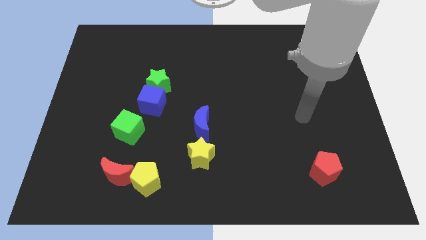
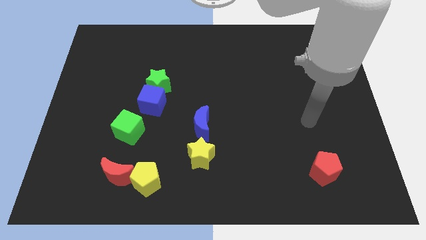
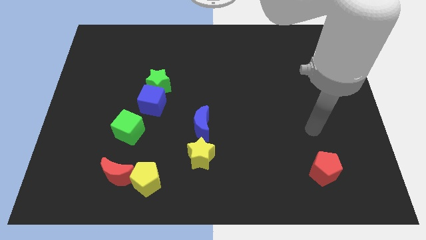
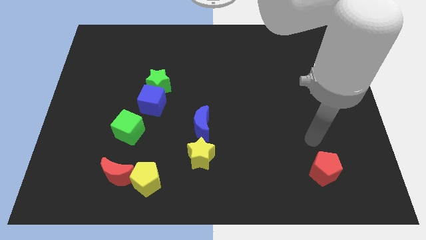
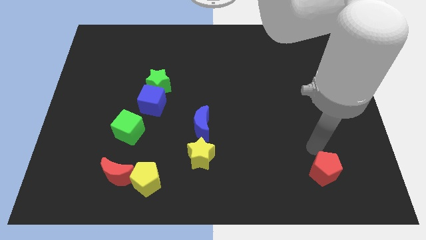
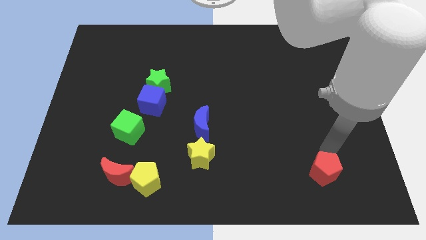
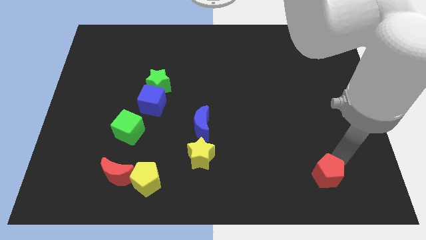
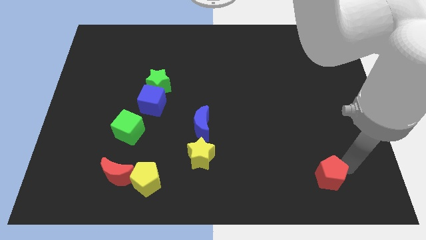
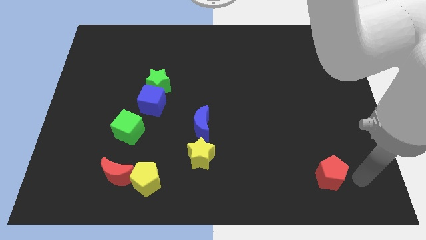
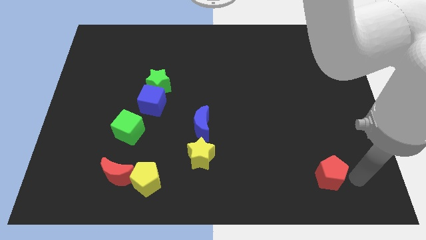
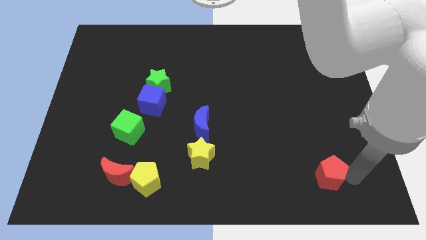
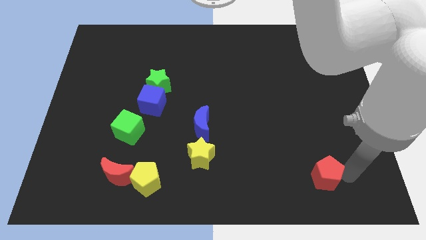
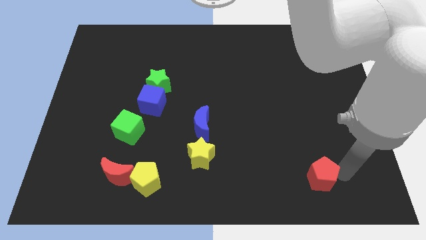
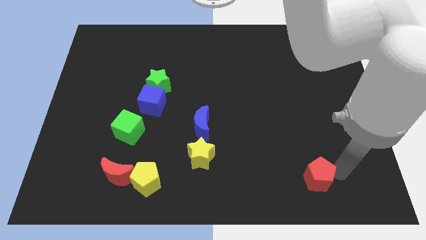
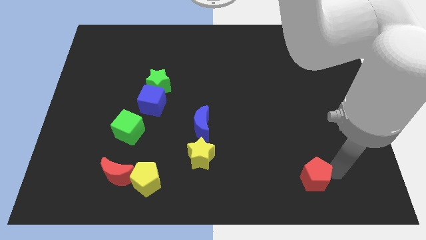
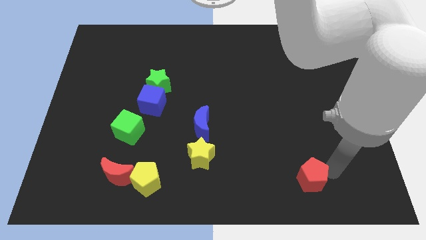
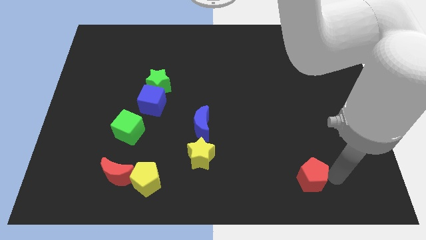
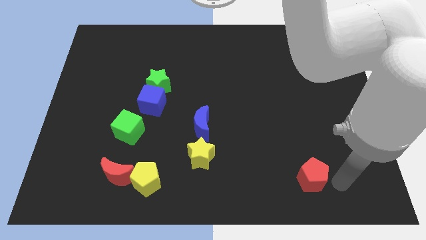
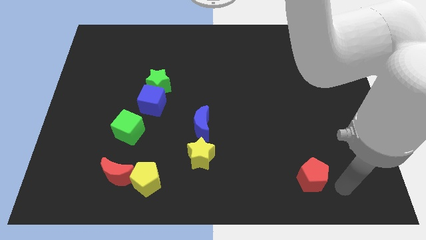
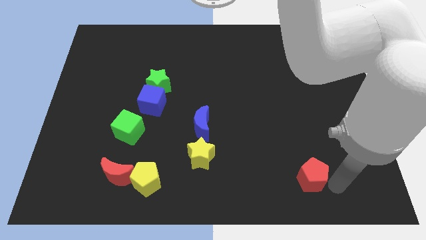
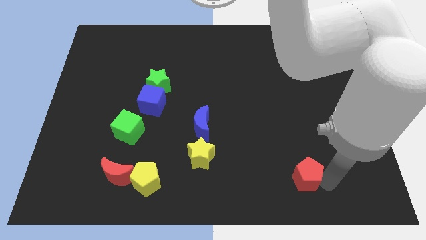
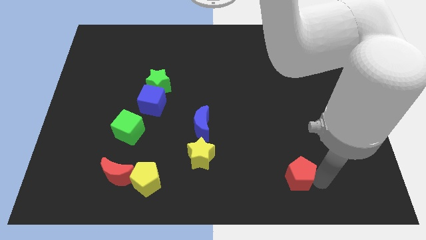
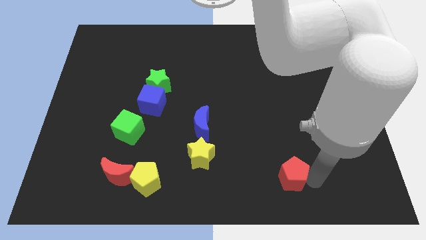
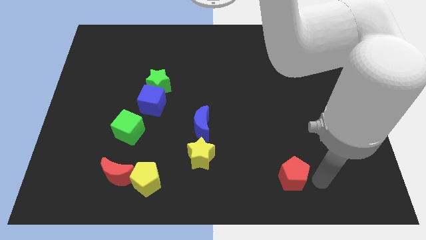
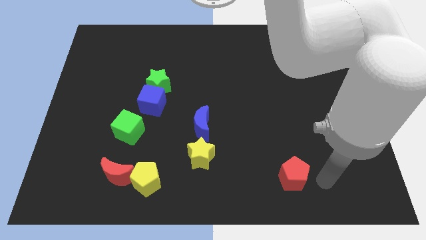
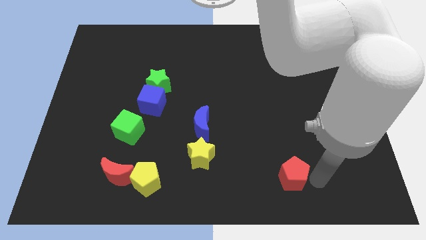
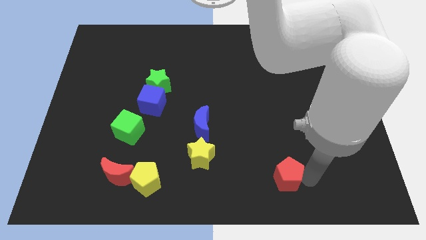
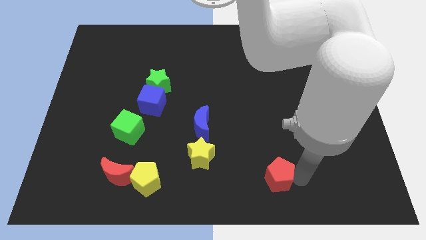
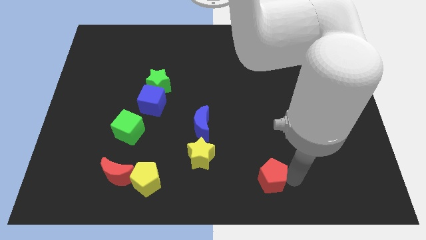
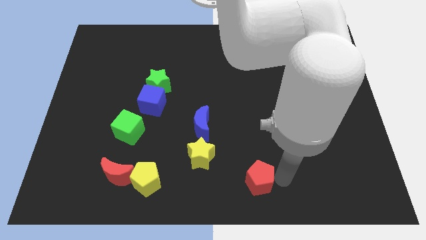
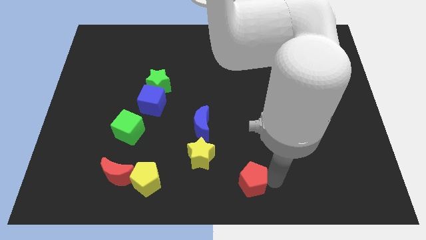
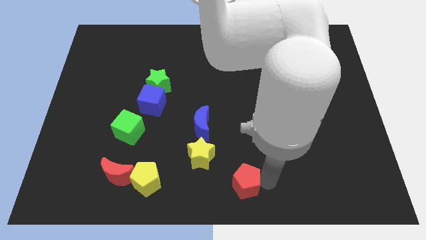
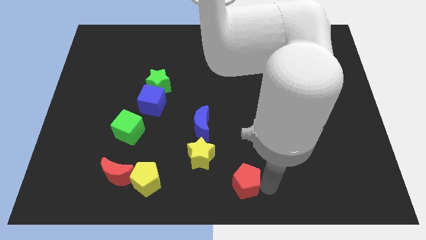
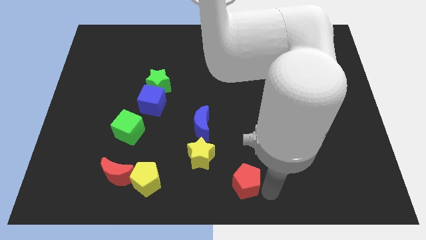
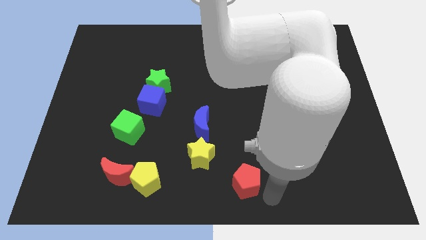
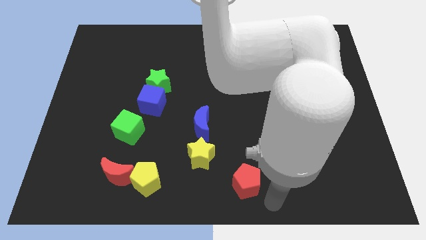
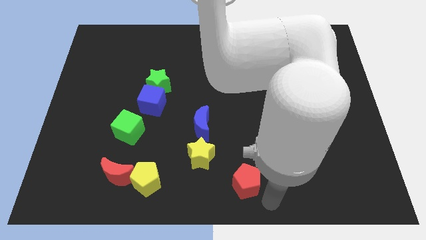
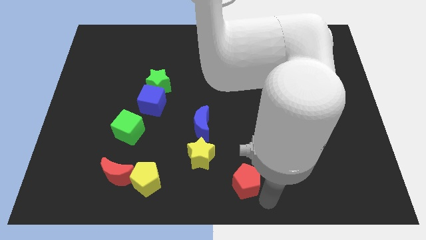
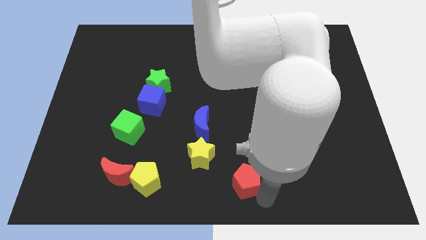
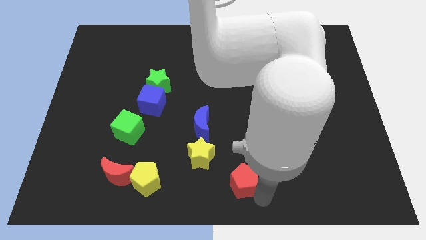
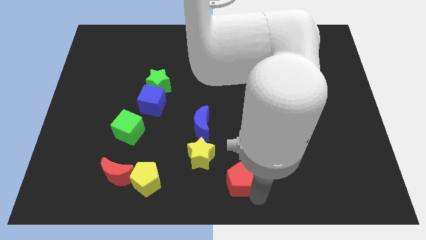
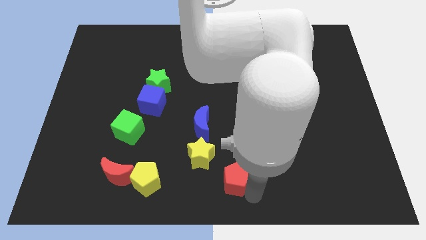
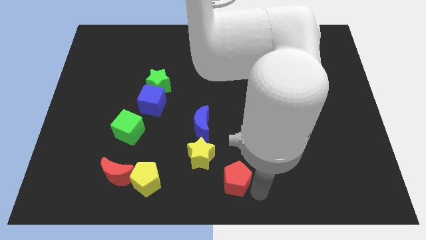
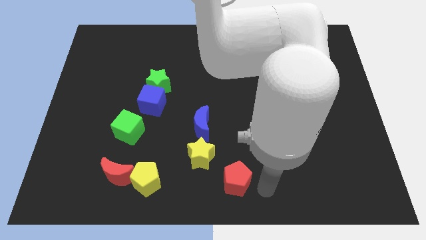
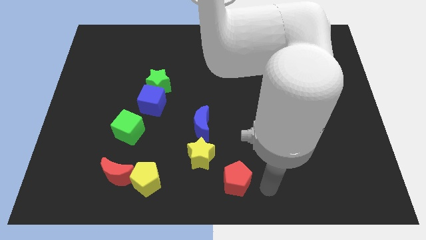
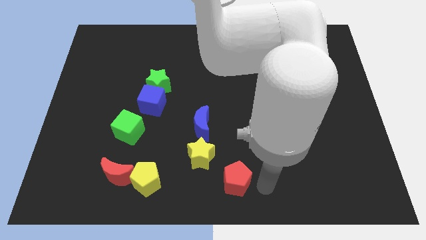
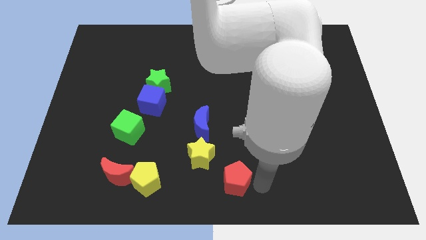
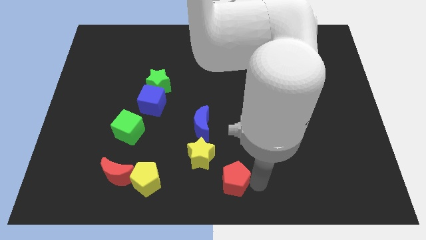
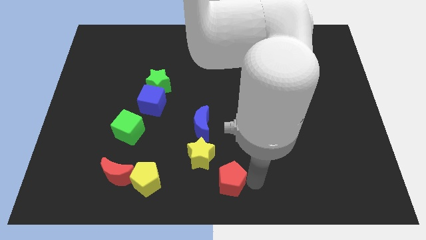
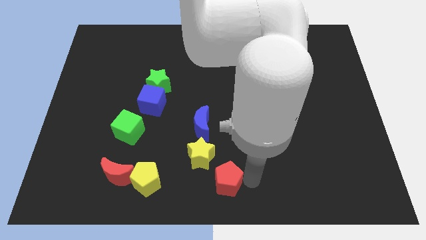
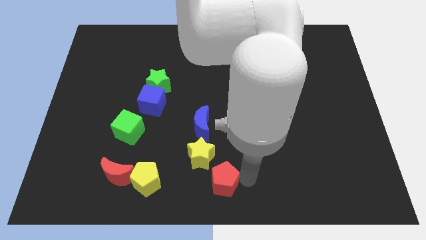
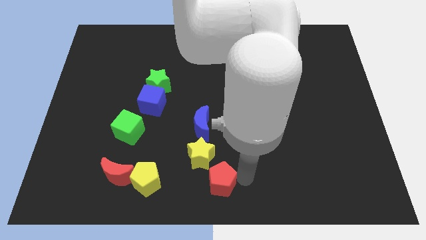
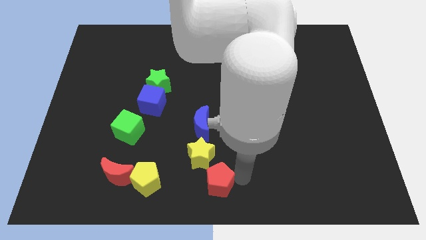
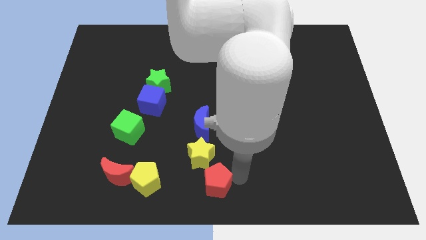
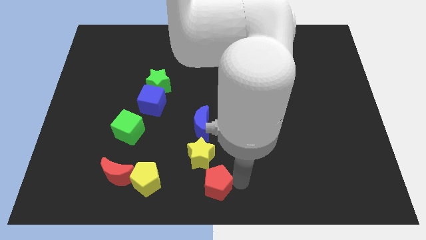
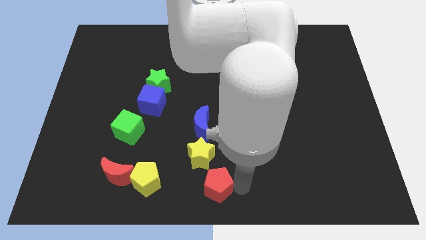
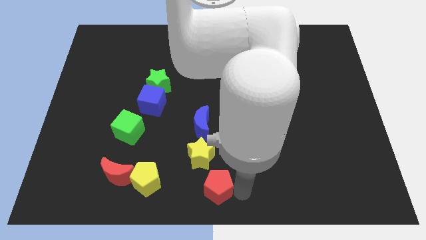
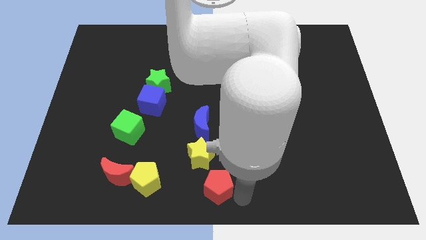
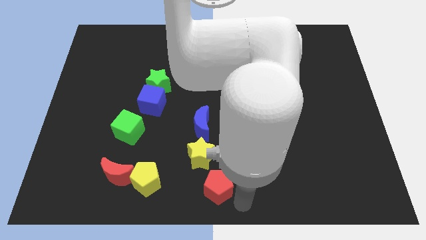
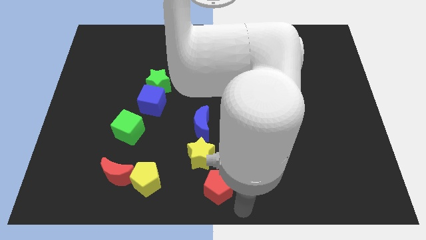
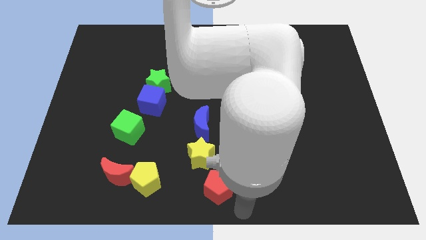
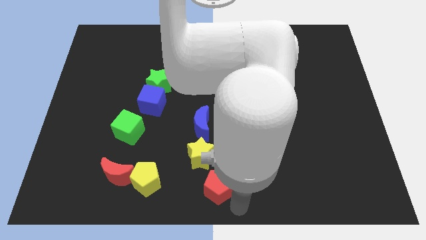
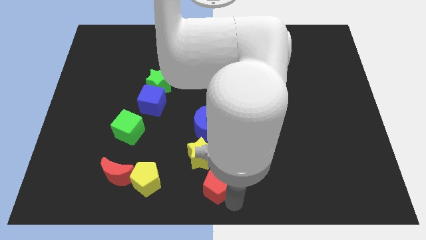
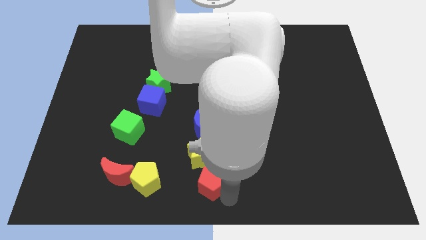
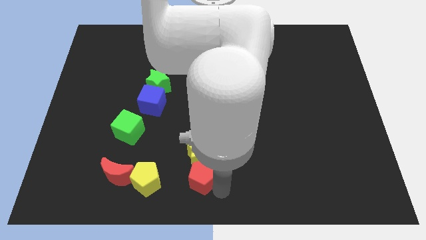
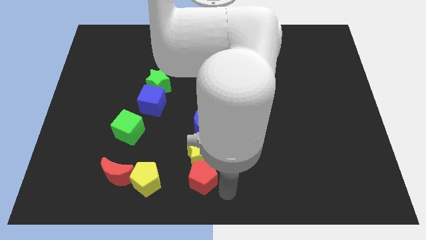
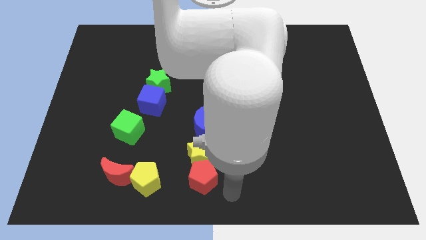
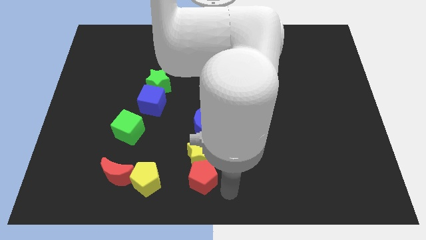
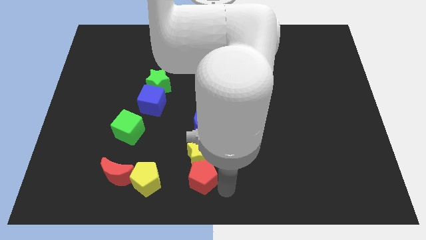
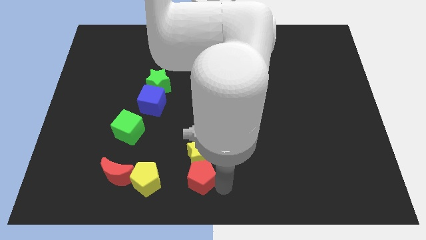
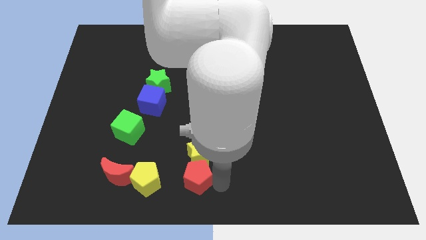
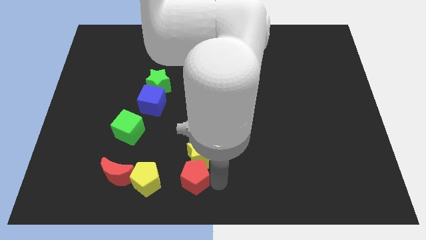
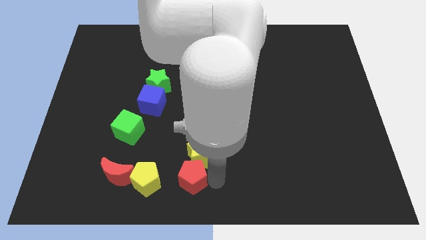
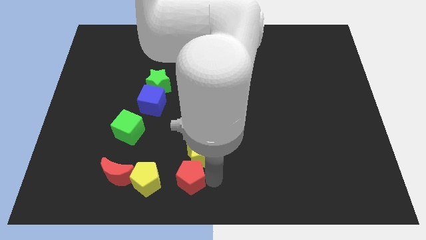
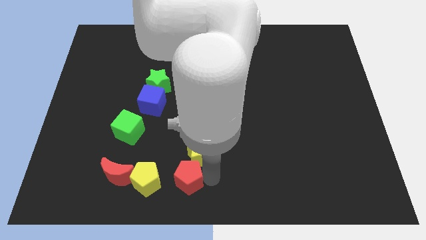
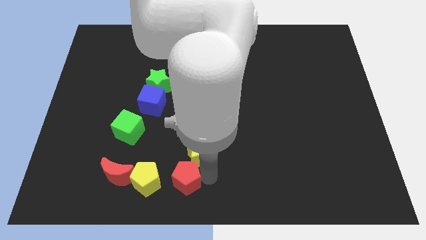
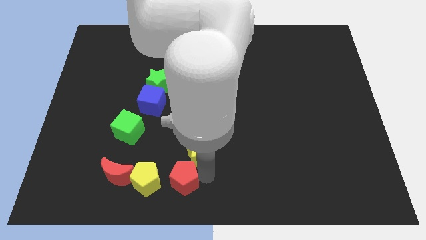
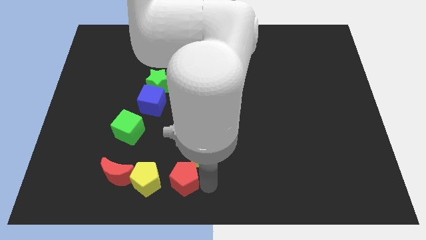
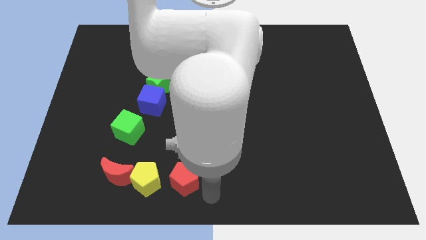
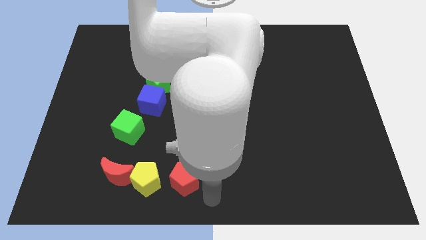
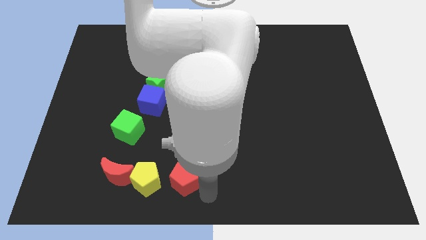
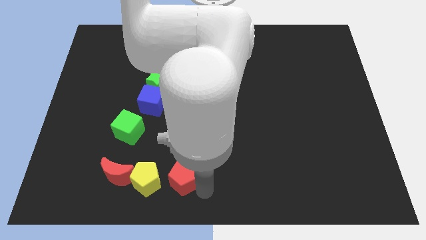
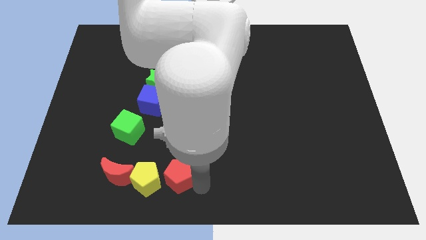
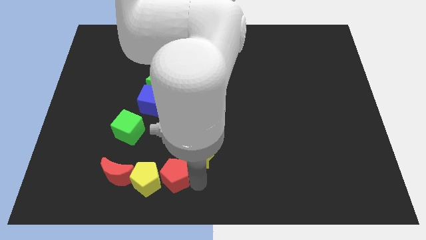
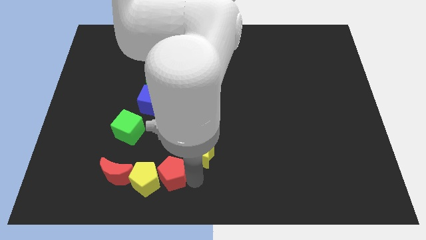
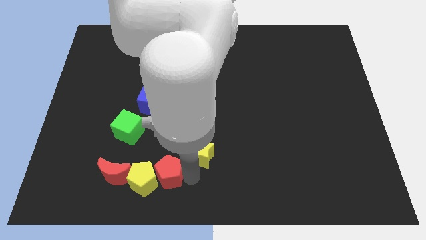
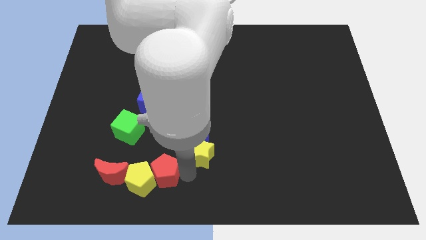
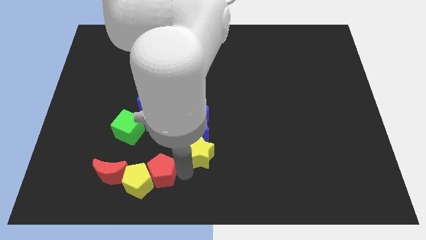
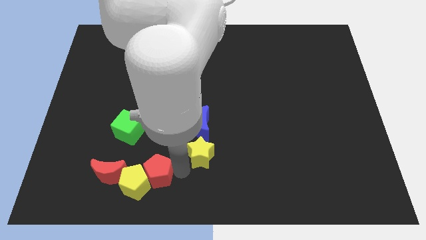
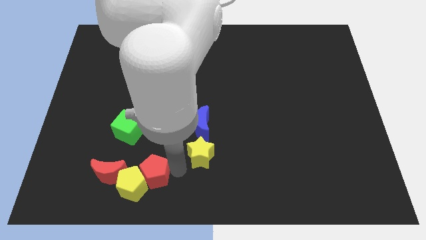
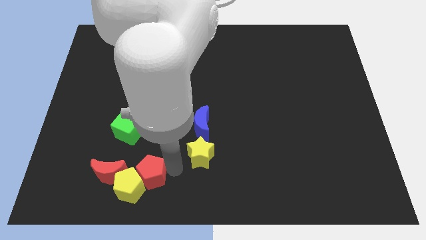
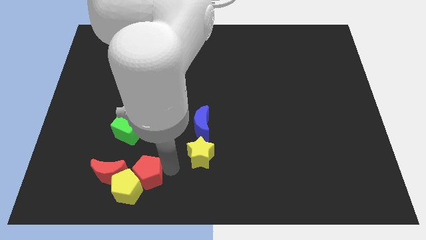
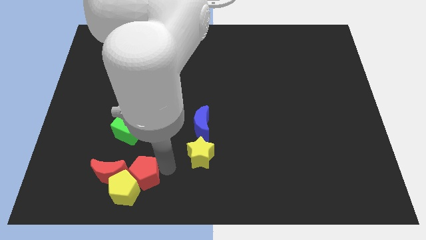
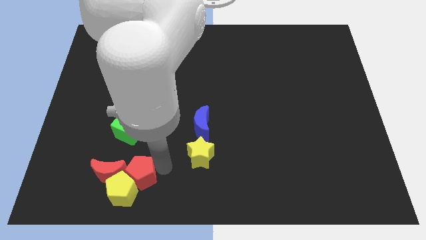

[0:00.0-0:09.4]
slide the red pentagon to the top right side of the red moon
